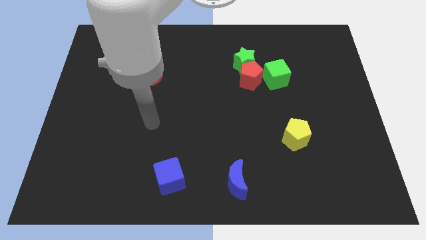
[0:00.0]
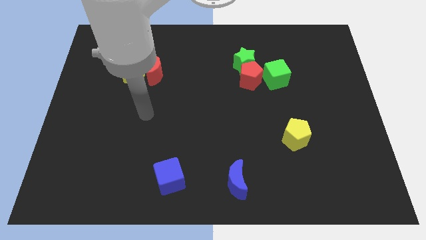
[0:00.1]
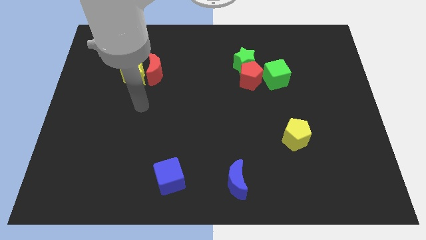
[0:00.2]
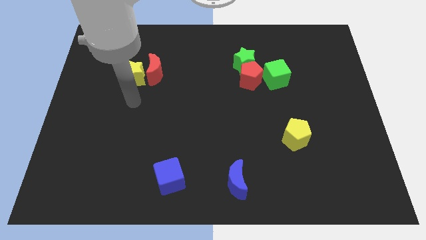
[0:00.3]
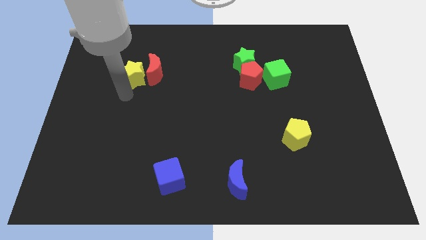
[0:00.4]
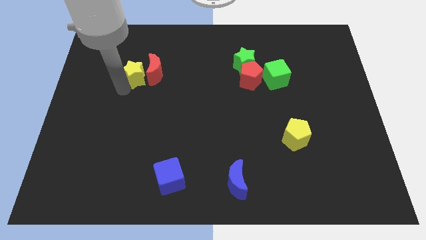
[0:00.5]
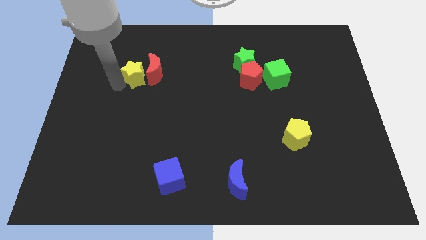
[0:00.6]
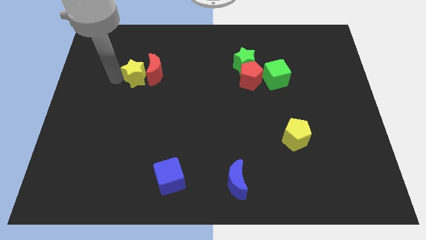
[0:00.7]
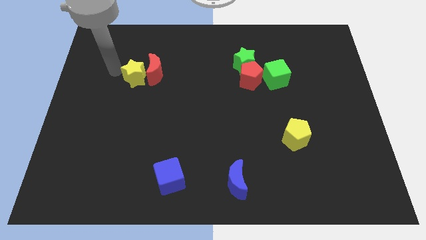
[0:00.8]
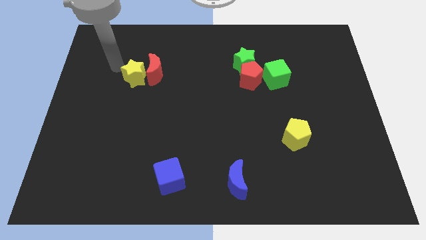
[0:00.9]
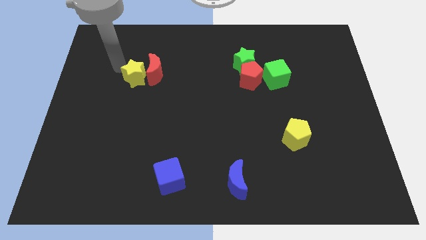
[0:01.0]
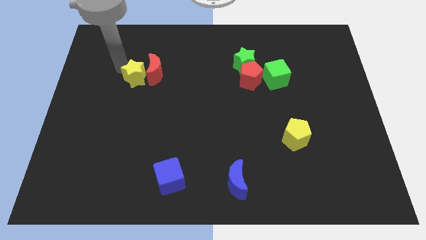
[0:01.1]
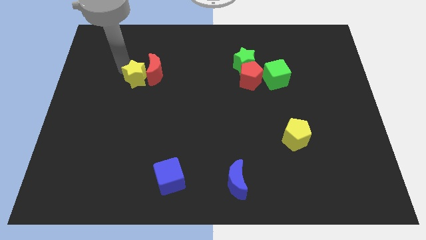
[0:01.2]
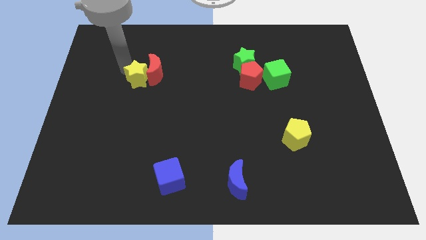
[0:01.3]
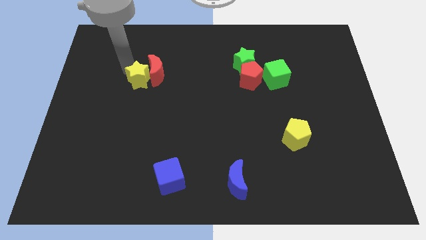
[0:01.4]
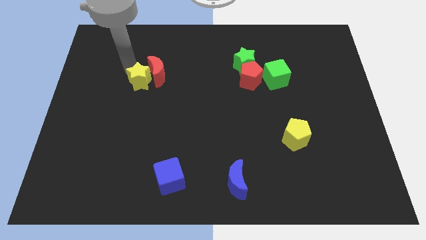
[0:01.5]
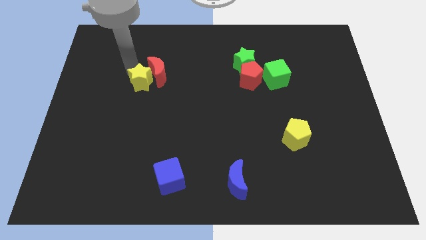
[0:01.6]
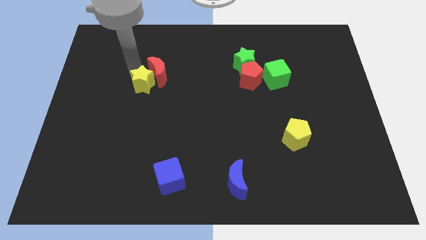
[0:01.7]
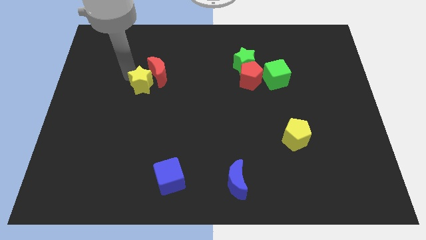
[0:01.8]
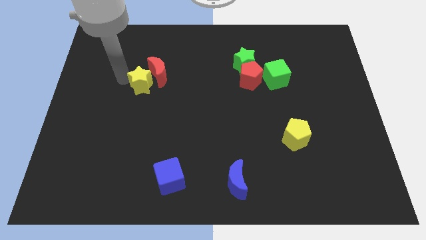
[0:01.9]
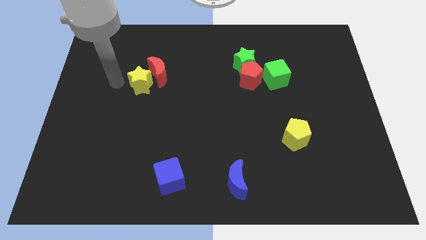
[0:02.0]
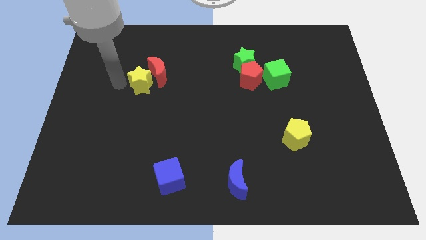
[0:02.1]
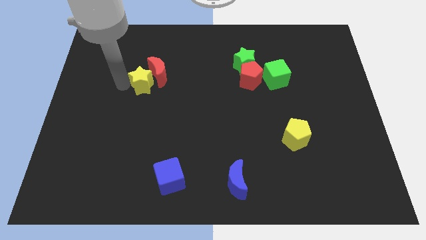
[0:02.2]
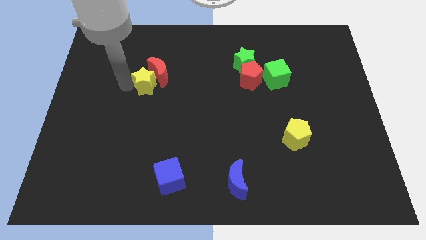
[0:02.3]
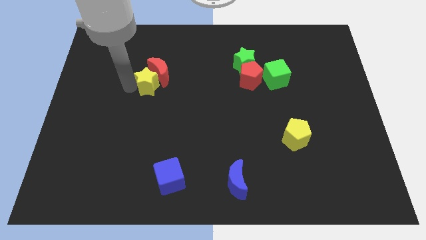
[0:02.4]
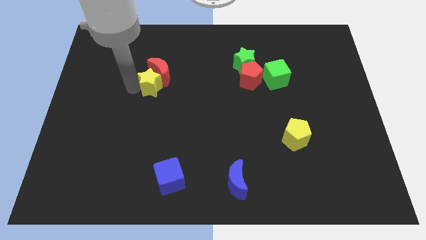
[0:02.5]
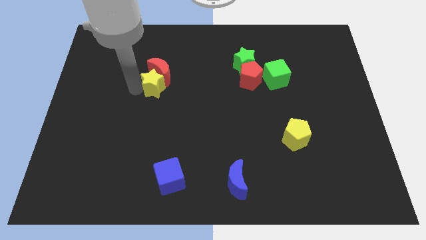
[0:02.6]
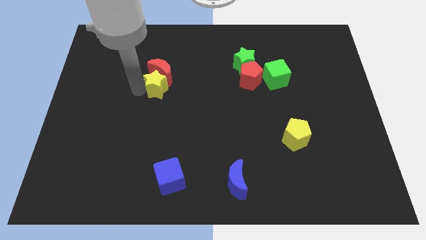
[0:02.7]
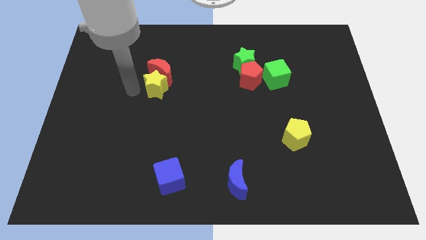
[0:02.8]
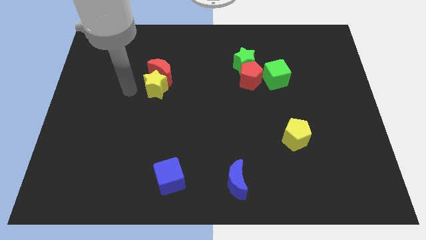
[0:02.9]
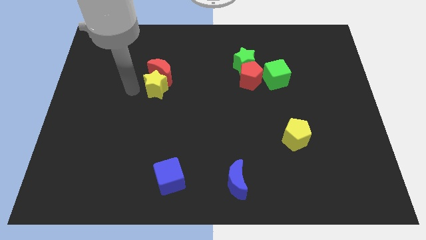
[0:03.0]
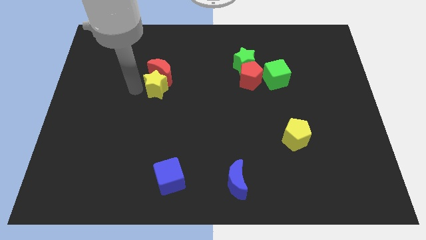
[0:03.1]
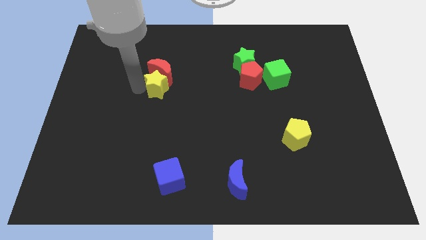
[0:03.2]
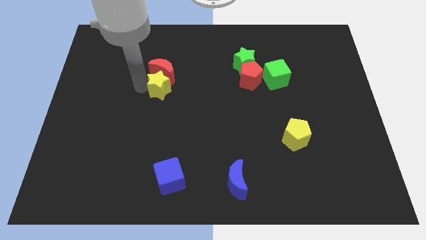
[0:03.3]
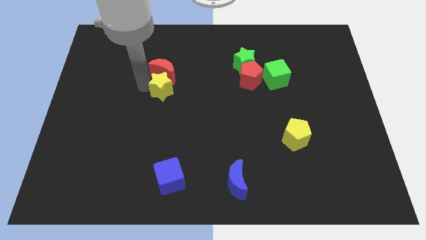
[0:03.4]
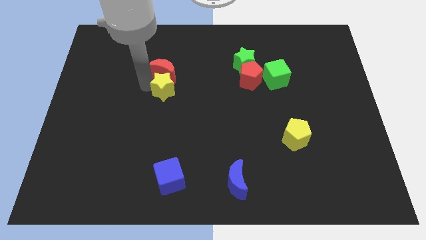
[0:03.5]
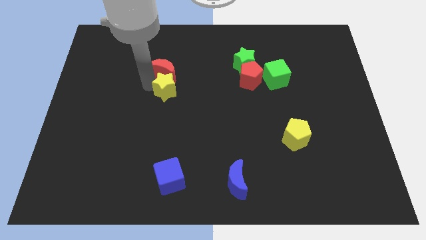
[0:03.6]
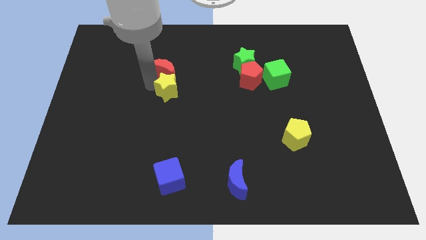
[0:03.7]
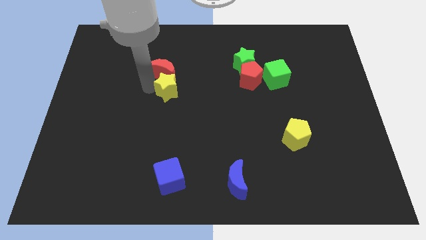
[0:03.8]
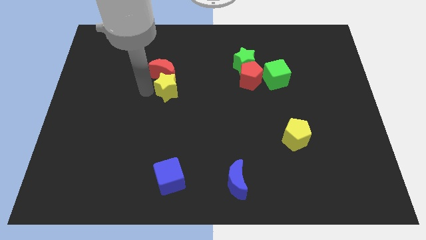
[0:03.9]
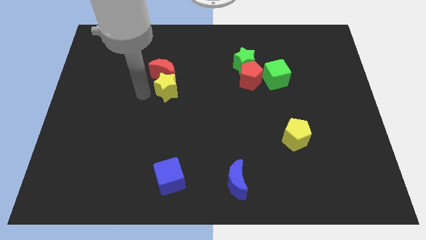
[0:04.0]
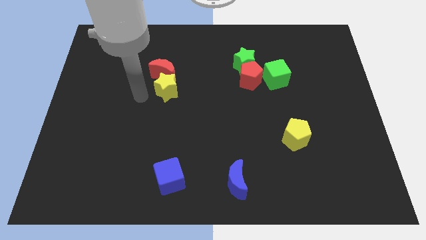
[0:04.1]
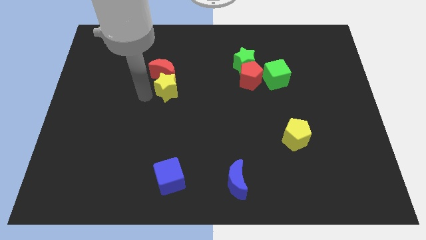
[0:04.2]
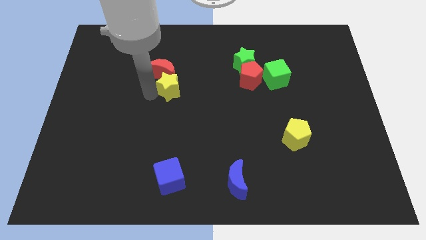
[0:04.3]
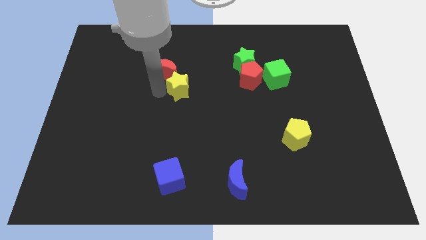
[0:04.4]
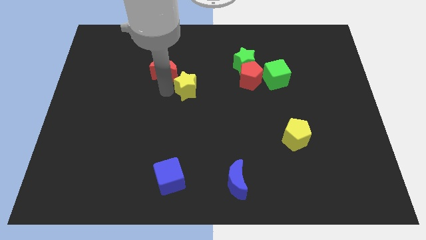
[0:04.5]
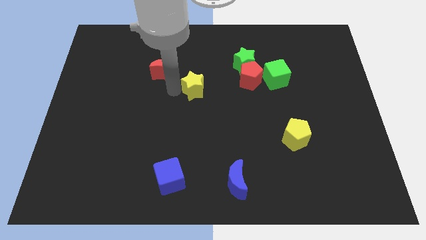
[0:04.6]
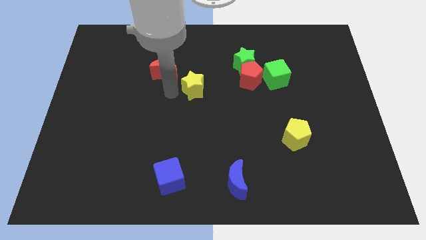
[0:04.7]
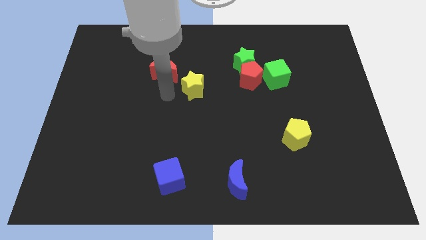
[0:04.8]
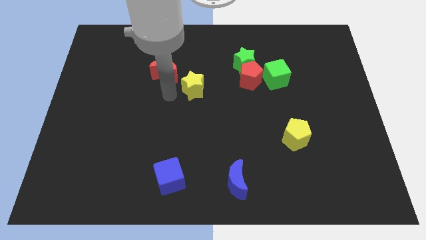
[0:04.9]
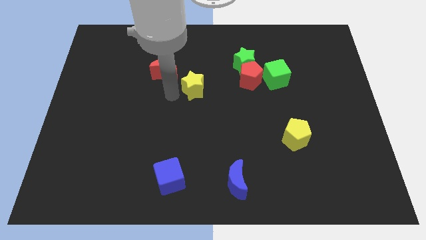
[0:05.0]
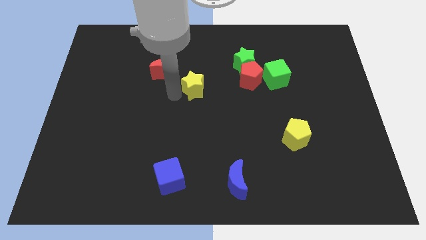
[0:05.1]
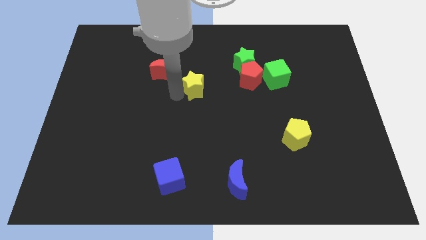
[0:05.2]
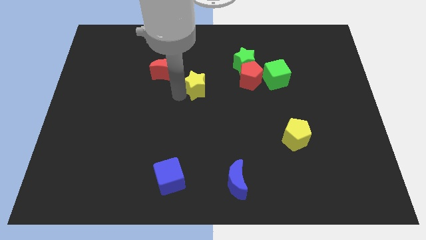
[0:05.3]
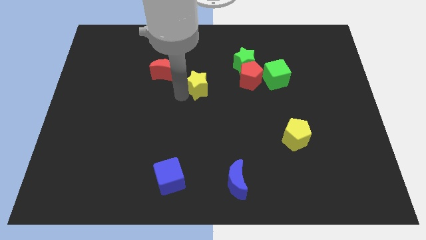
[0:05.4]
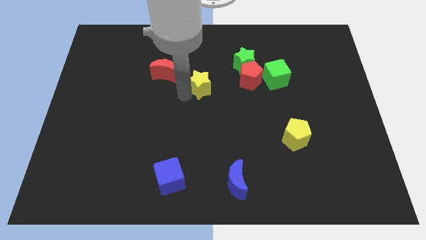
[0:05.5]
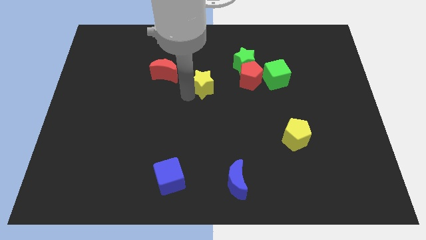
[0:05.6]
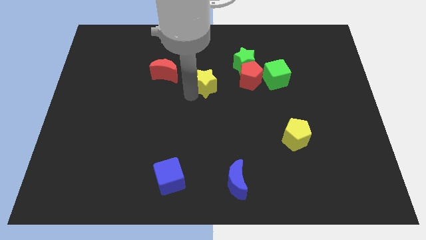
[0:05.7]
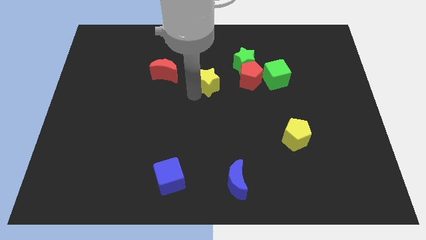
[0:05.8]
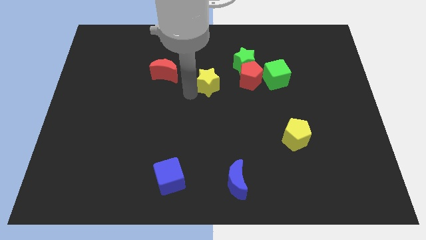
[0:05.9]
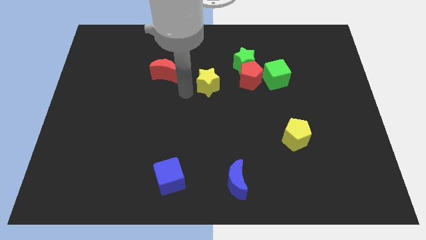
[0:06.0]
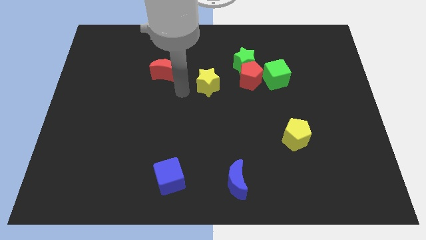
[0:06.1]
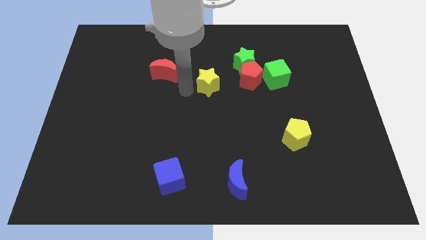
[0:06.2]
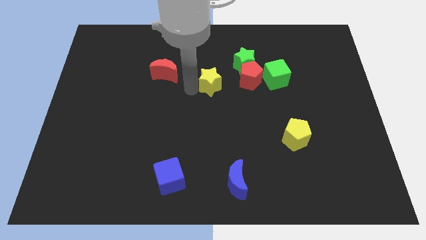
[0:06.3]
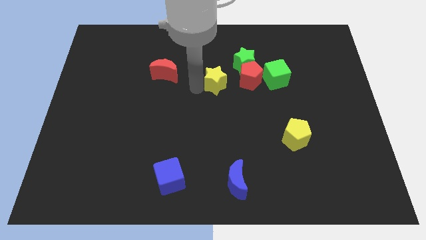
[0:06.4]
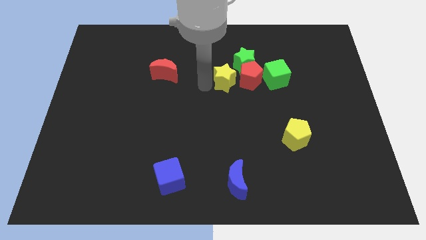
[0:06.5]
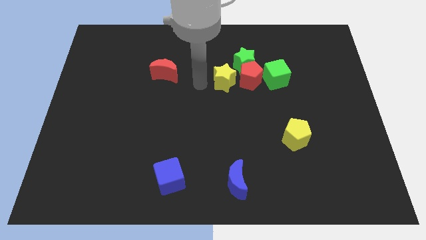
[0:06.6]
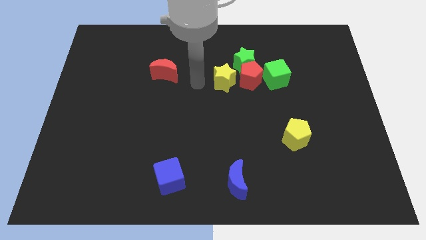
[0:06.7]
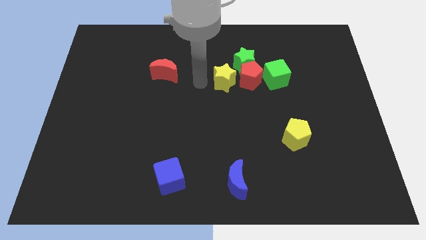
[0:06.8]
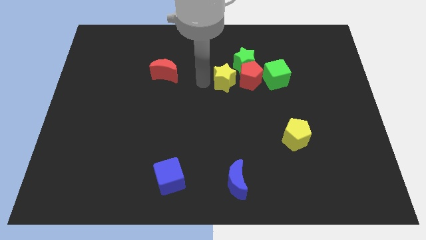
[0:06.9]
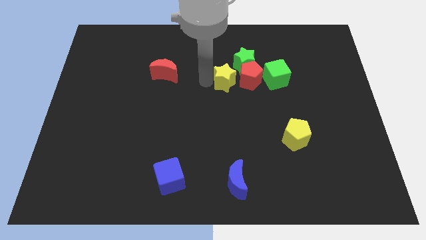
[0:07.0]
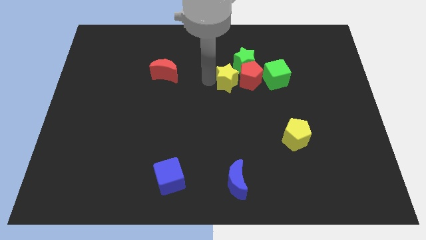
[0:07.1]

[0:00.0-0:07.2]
move the yellow star to the red pentagon
